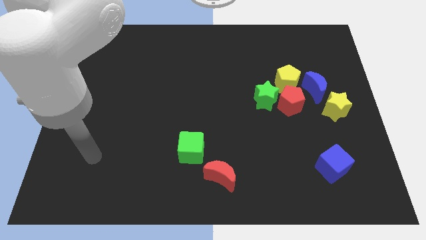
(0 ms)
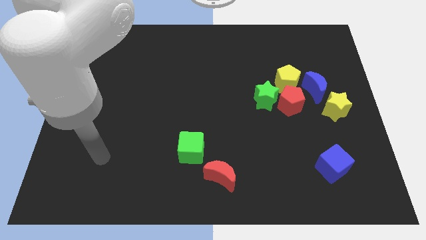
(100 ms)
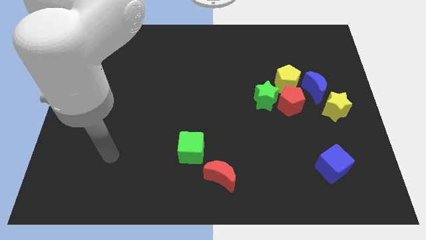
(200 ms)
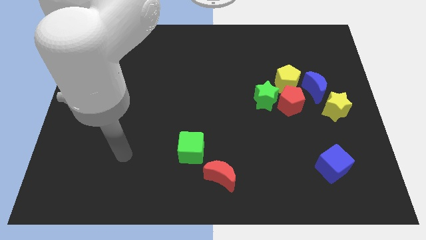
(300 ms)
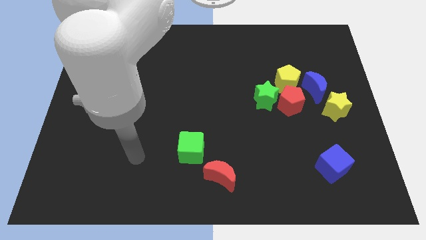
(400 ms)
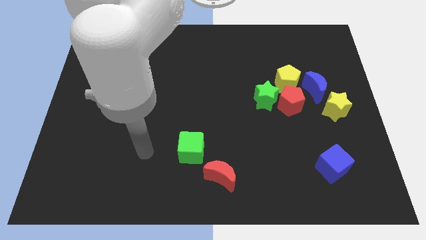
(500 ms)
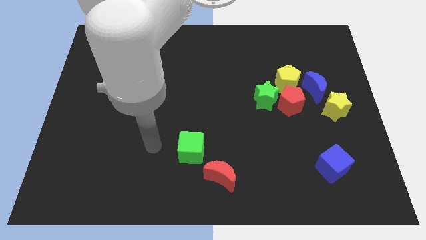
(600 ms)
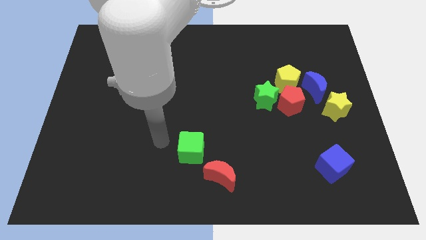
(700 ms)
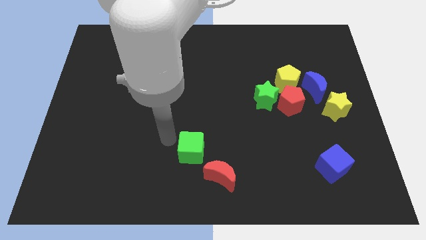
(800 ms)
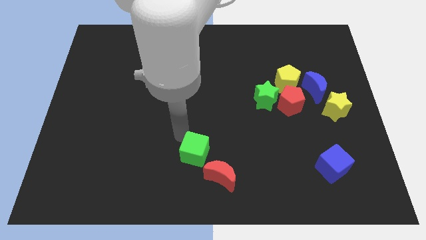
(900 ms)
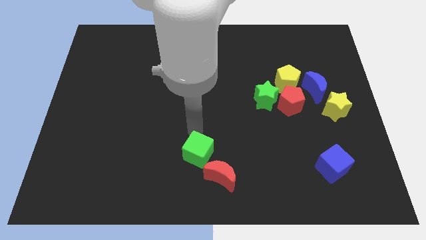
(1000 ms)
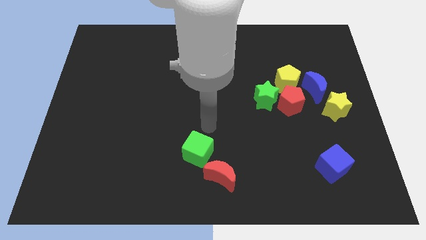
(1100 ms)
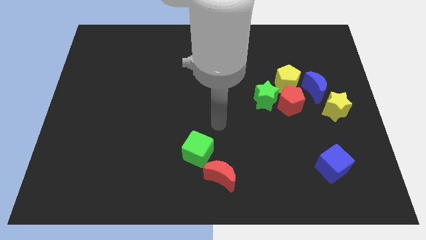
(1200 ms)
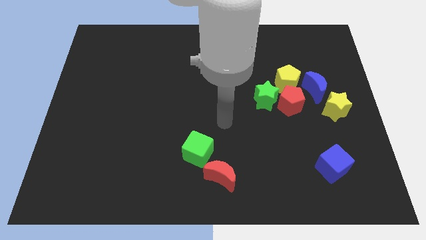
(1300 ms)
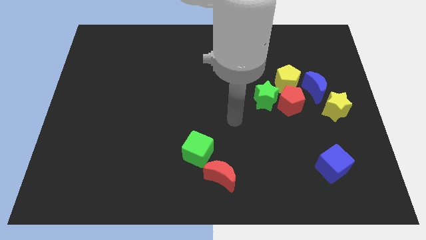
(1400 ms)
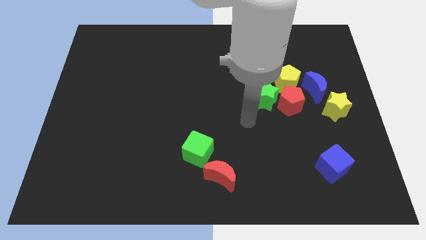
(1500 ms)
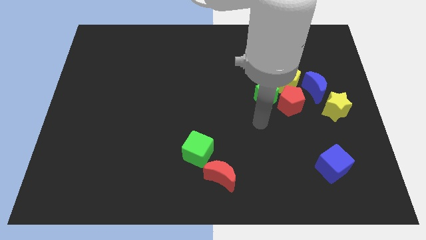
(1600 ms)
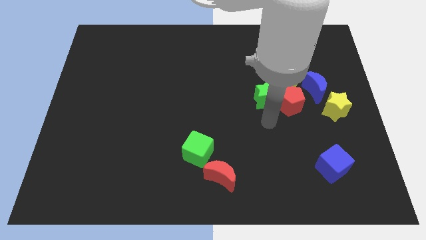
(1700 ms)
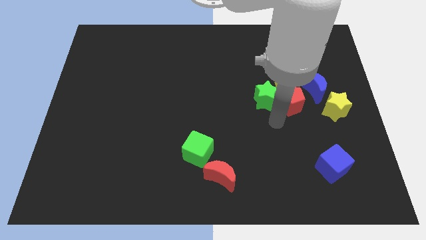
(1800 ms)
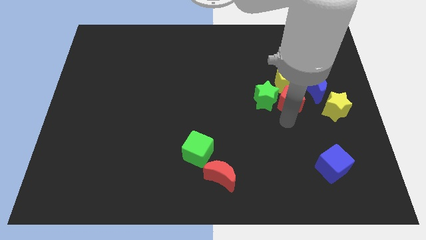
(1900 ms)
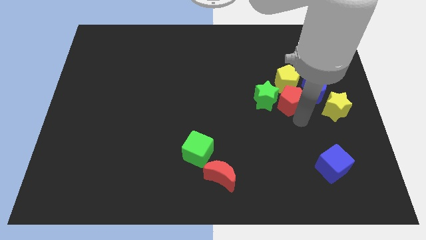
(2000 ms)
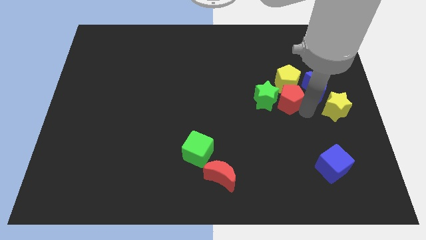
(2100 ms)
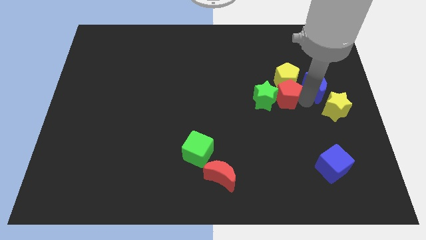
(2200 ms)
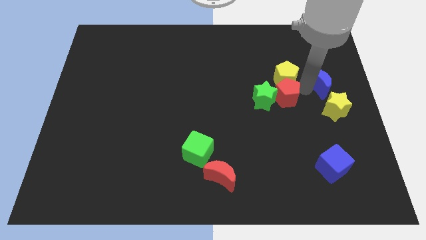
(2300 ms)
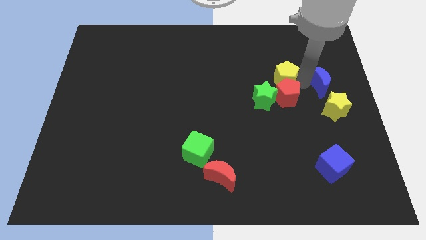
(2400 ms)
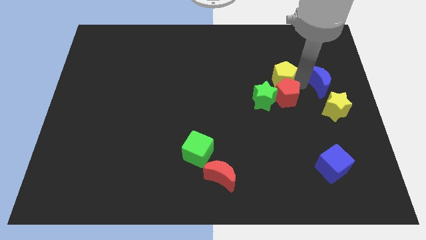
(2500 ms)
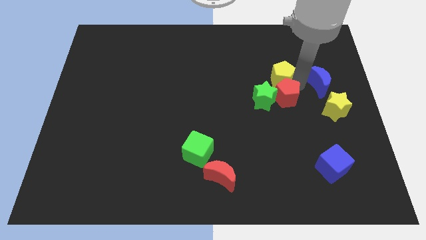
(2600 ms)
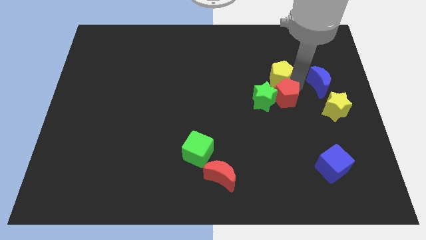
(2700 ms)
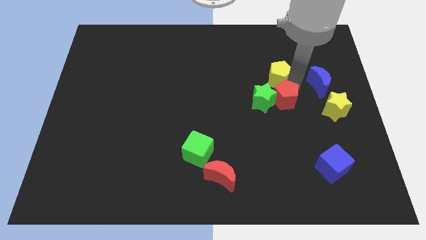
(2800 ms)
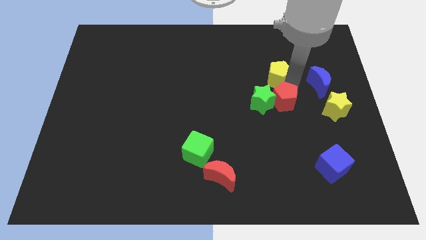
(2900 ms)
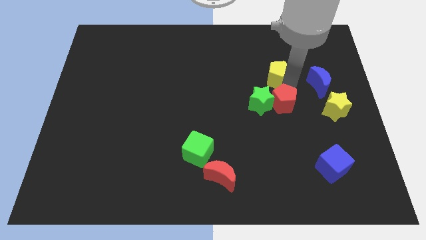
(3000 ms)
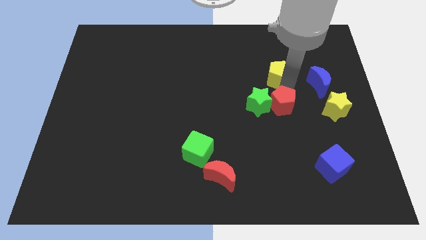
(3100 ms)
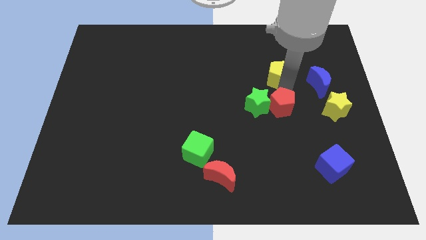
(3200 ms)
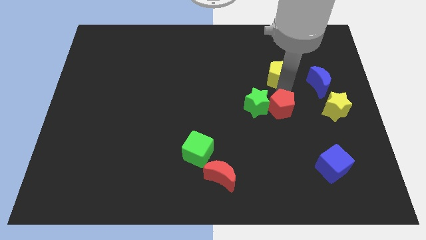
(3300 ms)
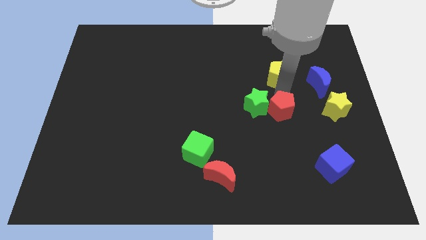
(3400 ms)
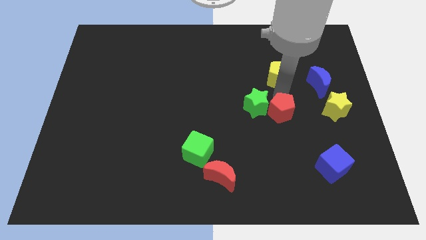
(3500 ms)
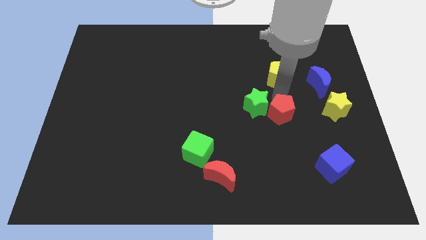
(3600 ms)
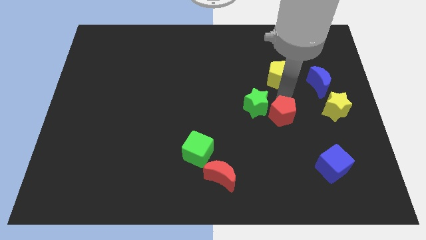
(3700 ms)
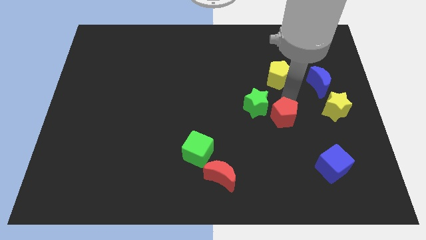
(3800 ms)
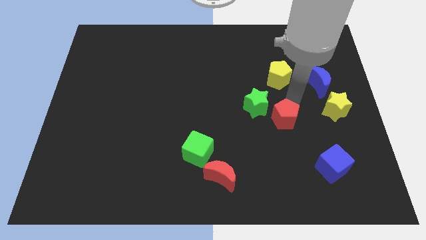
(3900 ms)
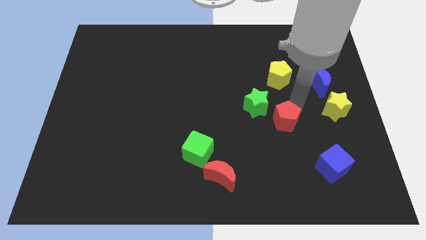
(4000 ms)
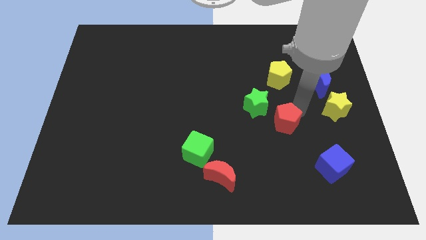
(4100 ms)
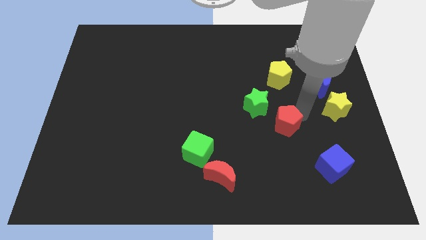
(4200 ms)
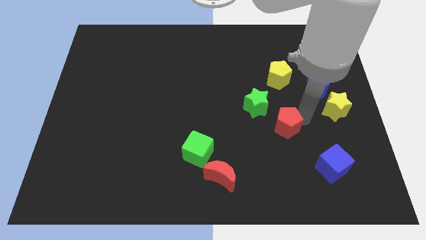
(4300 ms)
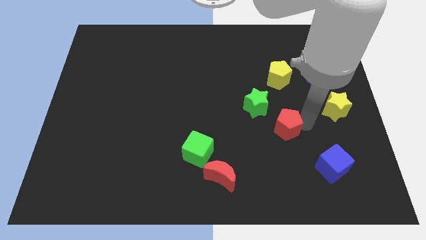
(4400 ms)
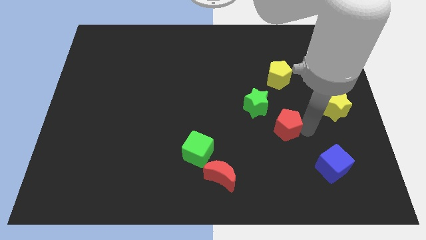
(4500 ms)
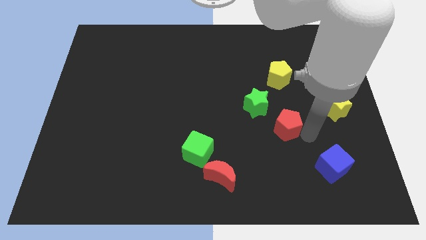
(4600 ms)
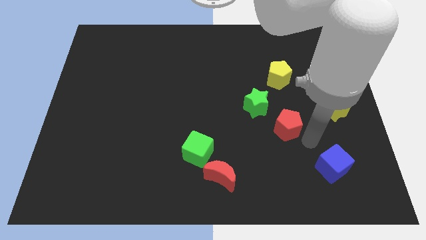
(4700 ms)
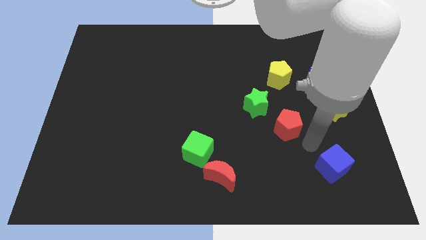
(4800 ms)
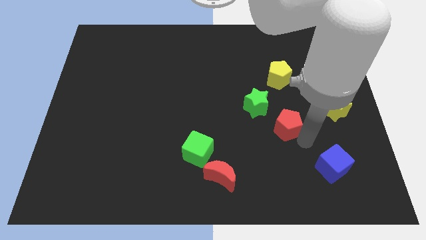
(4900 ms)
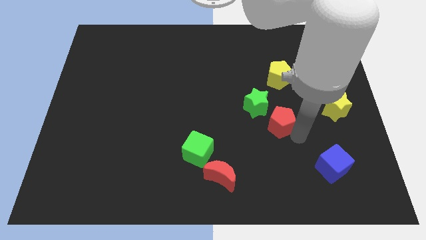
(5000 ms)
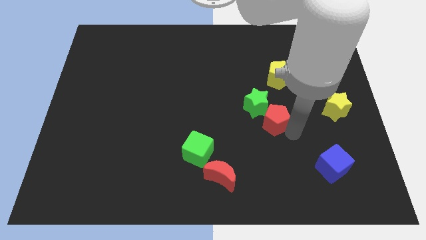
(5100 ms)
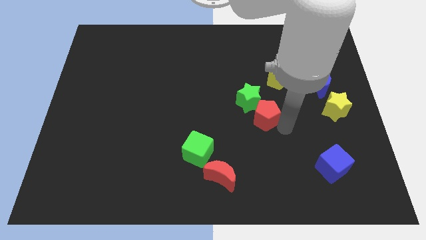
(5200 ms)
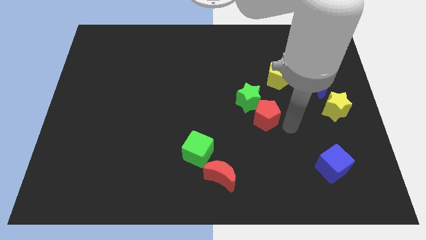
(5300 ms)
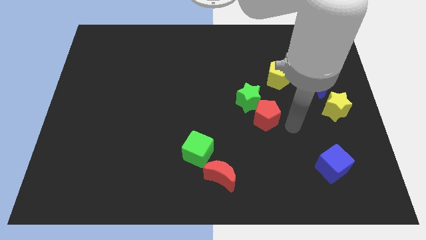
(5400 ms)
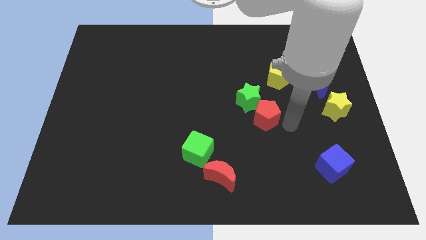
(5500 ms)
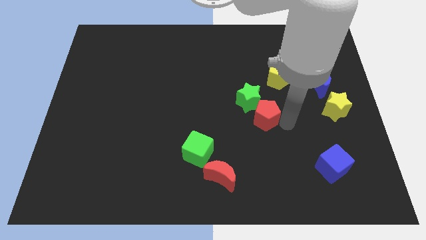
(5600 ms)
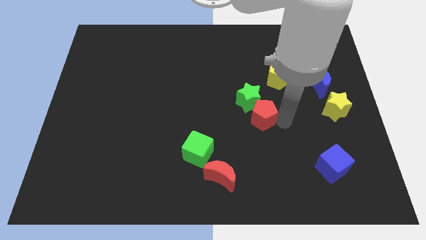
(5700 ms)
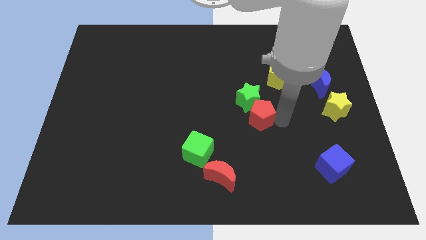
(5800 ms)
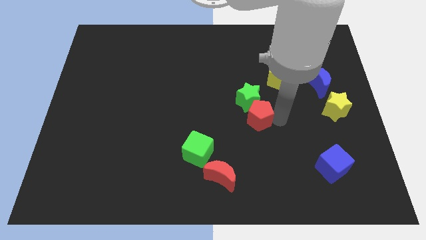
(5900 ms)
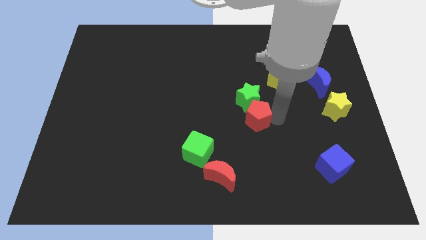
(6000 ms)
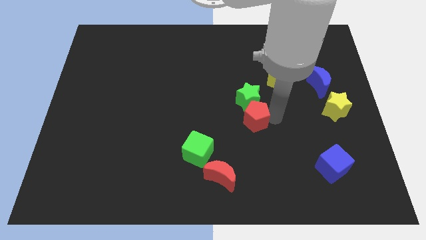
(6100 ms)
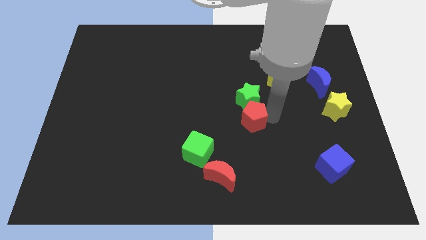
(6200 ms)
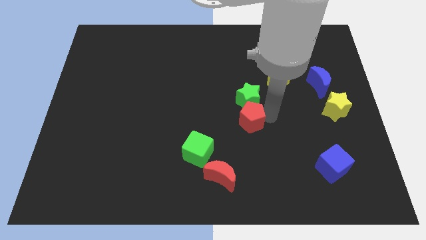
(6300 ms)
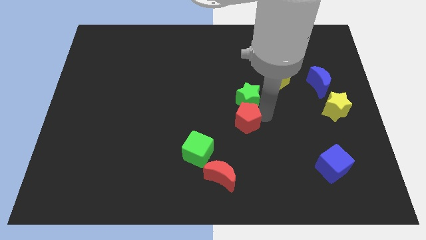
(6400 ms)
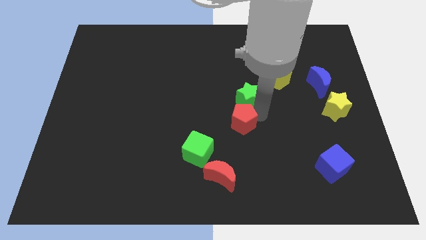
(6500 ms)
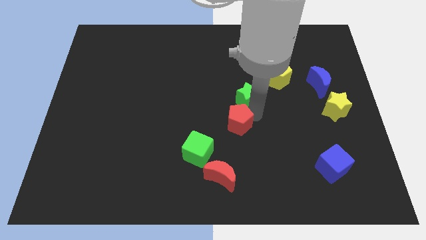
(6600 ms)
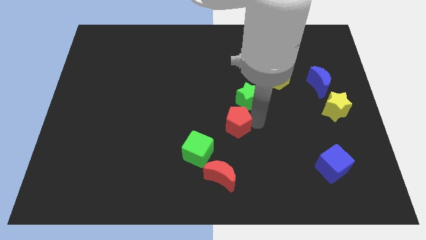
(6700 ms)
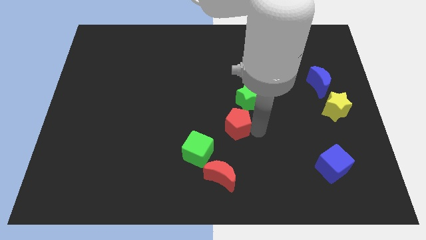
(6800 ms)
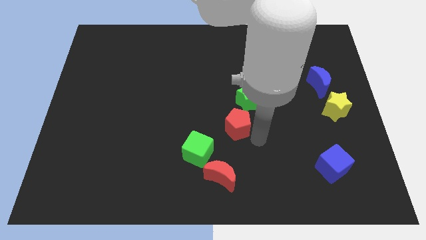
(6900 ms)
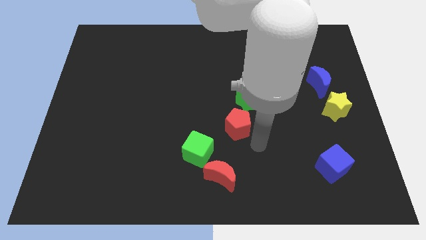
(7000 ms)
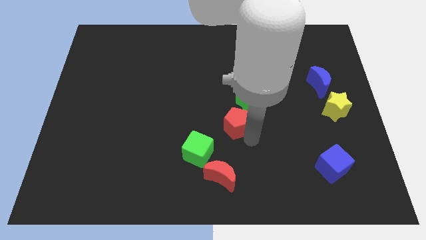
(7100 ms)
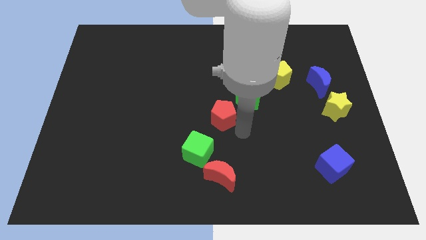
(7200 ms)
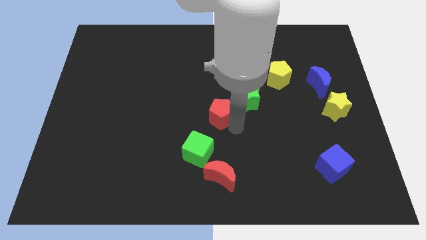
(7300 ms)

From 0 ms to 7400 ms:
push the red pentagon just left of the green star
